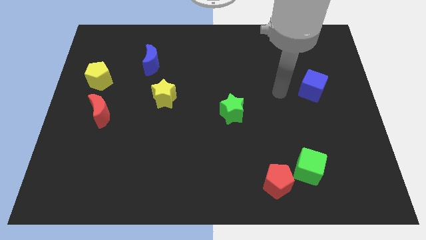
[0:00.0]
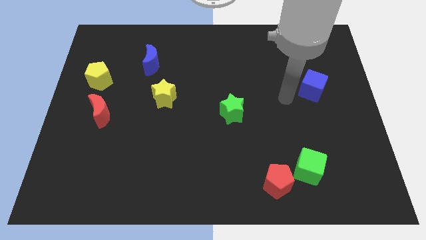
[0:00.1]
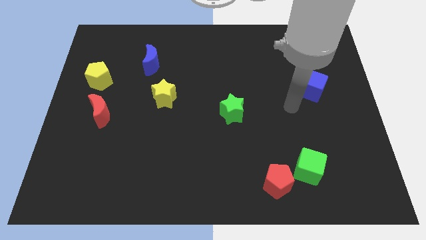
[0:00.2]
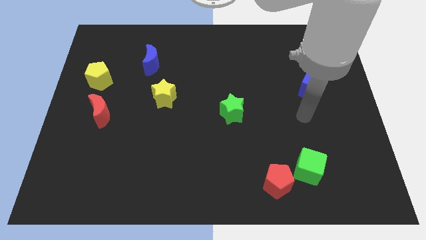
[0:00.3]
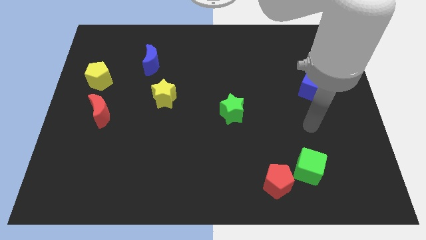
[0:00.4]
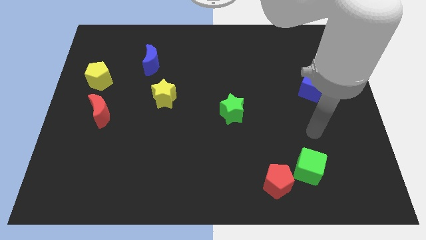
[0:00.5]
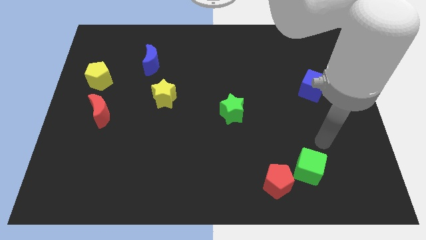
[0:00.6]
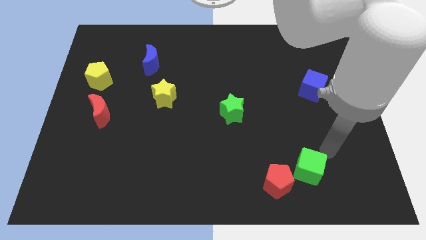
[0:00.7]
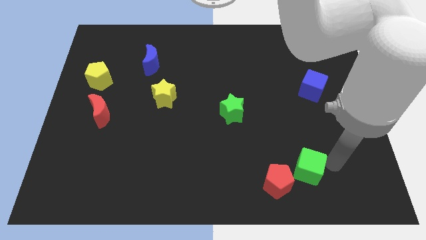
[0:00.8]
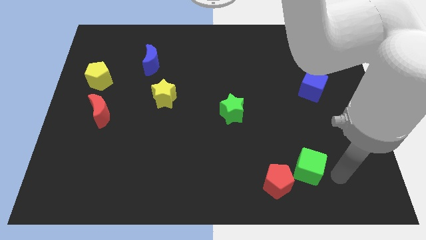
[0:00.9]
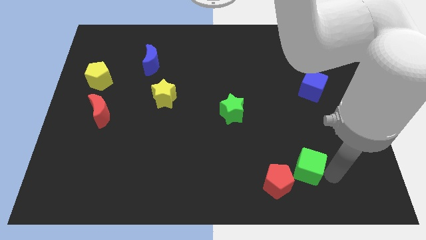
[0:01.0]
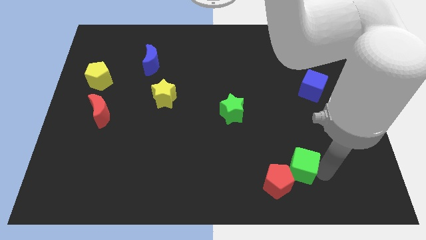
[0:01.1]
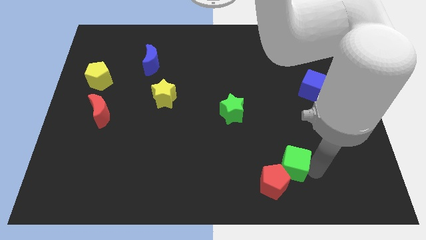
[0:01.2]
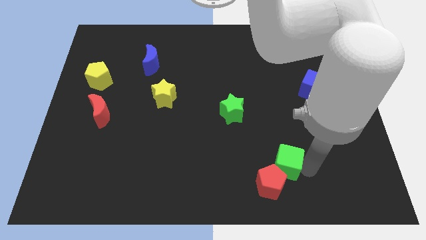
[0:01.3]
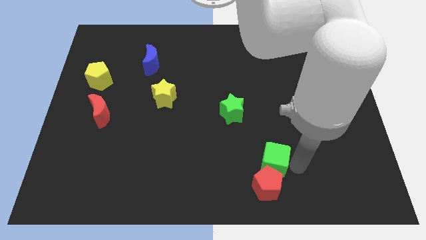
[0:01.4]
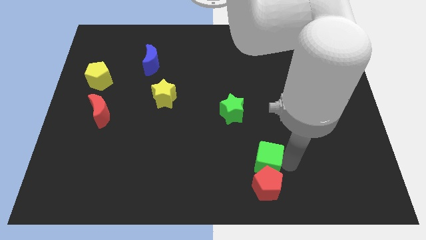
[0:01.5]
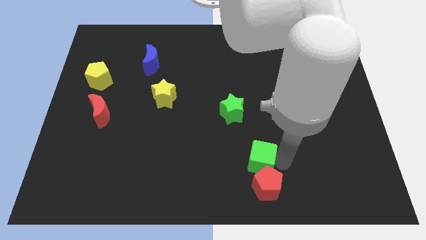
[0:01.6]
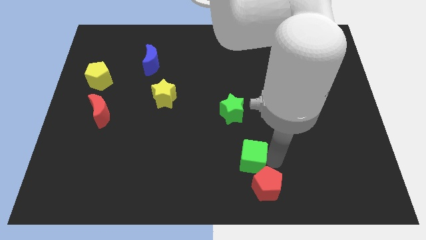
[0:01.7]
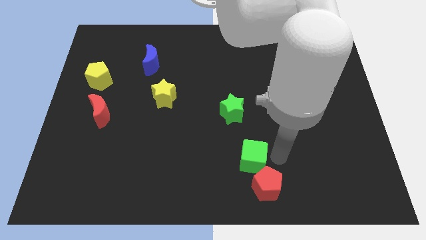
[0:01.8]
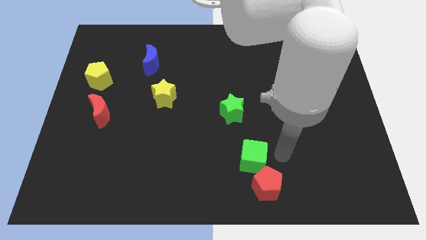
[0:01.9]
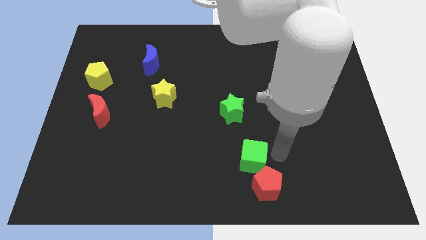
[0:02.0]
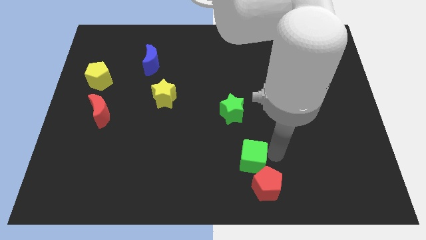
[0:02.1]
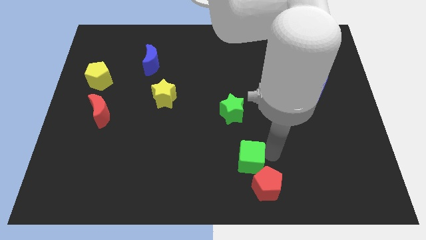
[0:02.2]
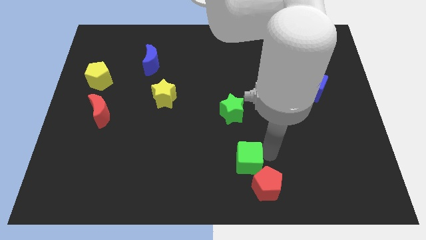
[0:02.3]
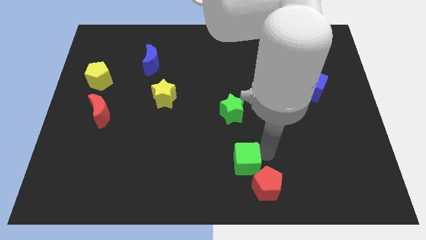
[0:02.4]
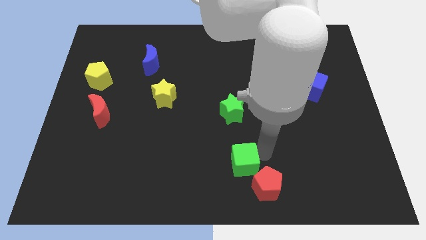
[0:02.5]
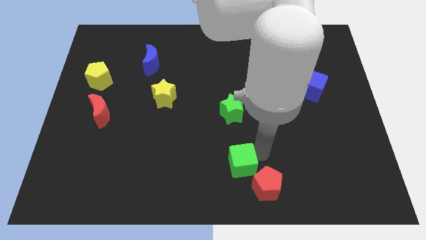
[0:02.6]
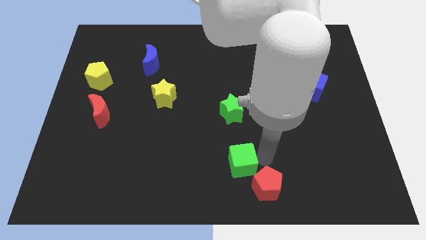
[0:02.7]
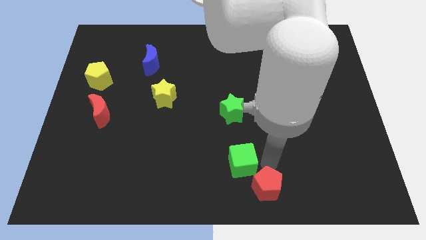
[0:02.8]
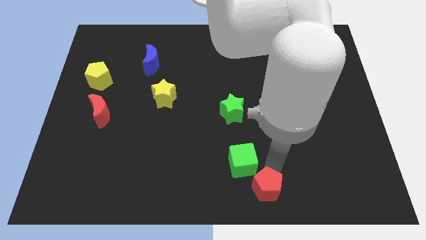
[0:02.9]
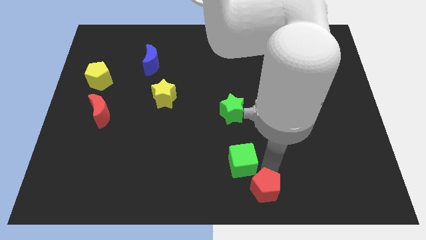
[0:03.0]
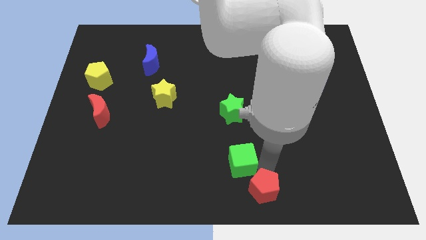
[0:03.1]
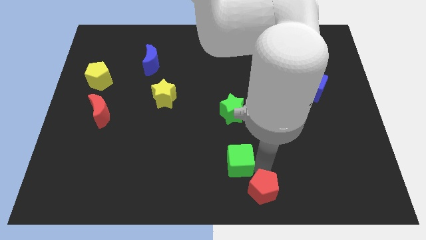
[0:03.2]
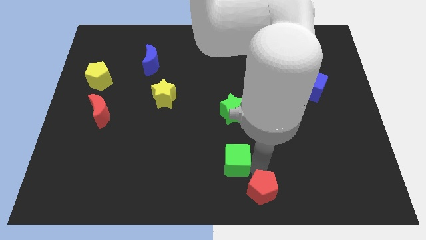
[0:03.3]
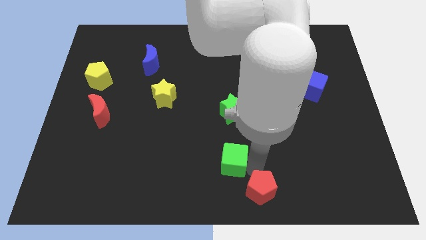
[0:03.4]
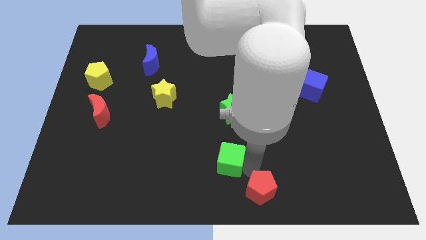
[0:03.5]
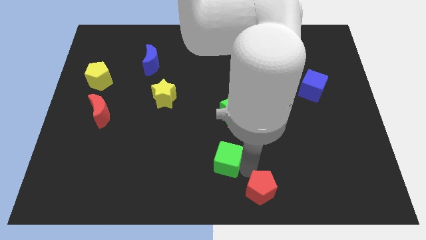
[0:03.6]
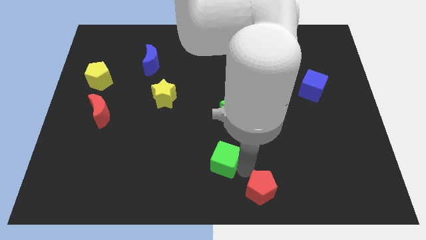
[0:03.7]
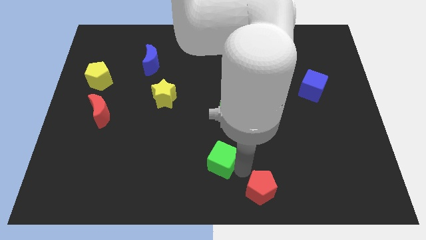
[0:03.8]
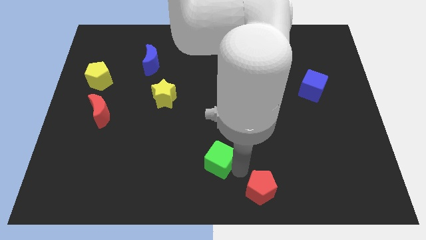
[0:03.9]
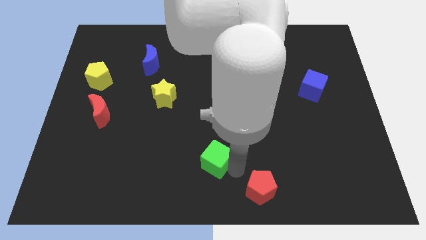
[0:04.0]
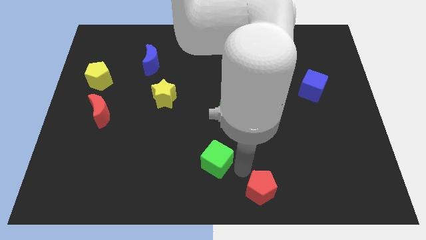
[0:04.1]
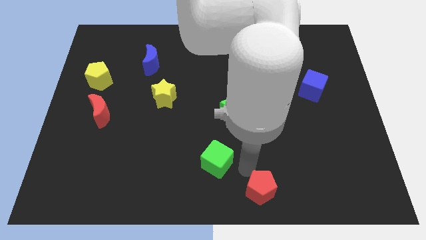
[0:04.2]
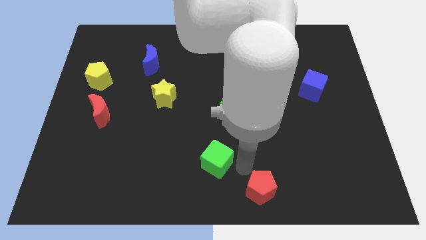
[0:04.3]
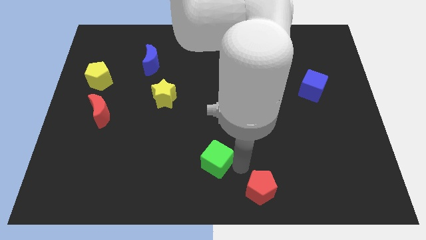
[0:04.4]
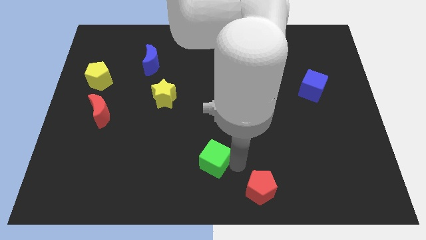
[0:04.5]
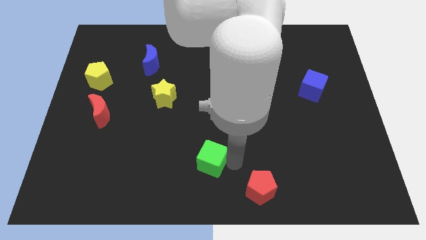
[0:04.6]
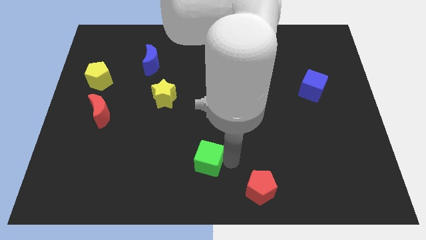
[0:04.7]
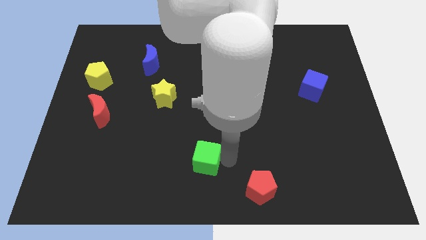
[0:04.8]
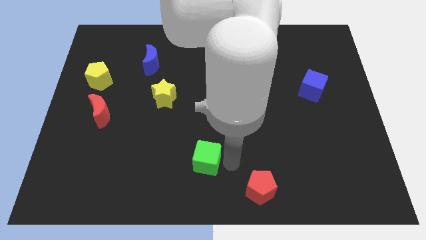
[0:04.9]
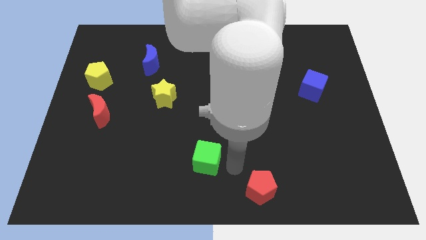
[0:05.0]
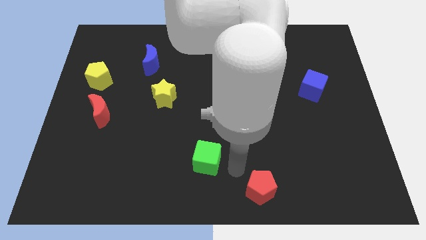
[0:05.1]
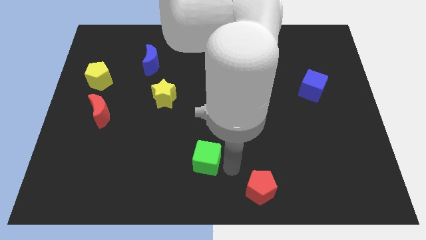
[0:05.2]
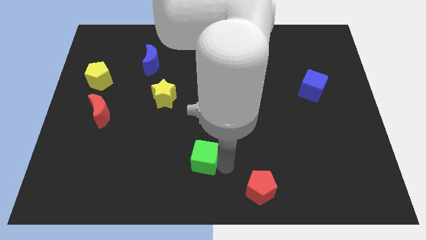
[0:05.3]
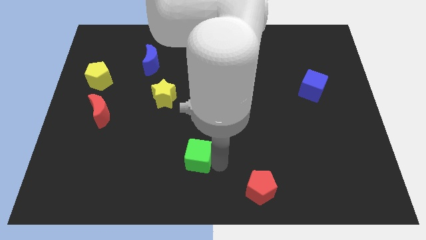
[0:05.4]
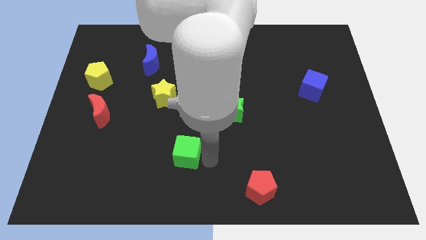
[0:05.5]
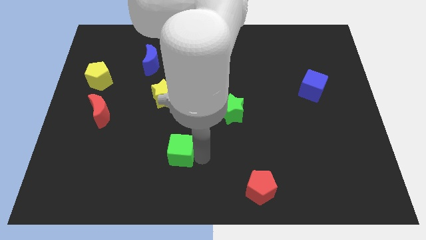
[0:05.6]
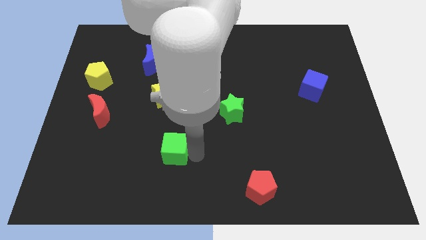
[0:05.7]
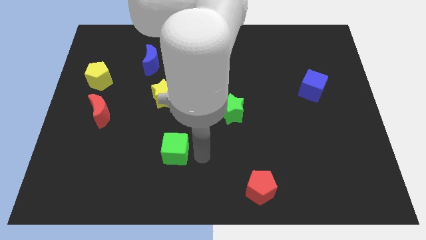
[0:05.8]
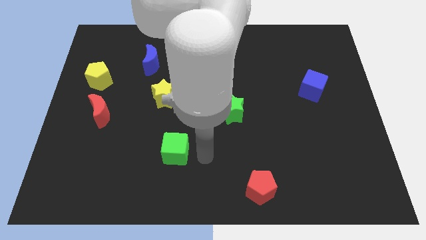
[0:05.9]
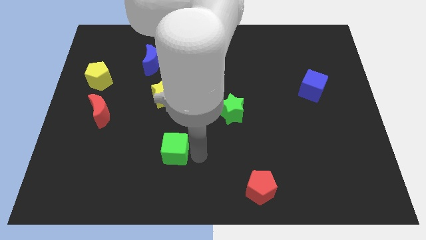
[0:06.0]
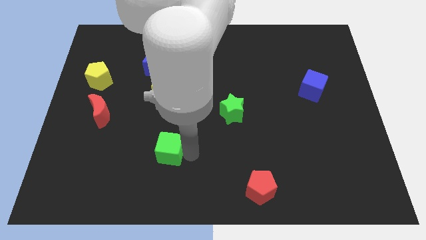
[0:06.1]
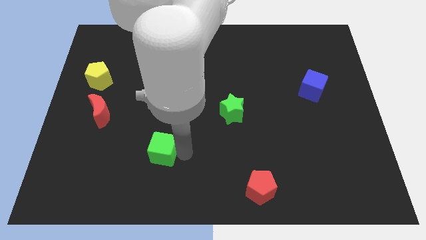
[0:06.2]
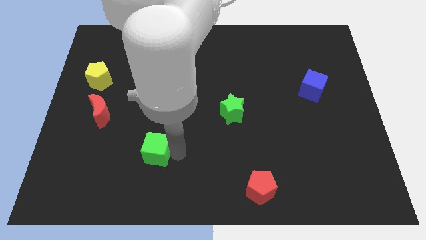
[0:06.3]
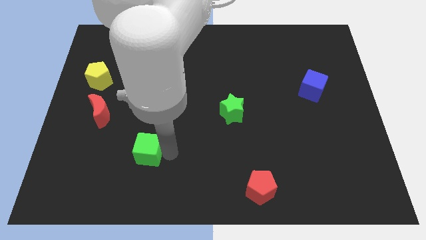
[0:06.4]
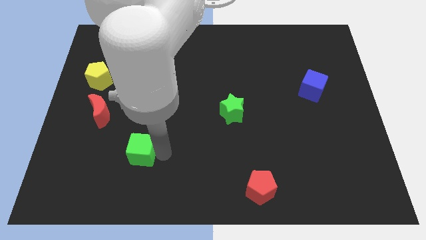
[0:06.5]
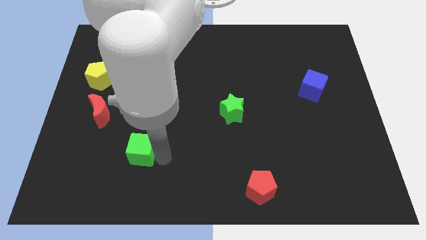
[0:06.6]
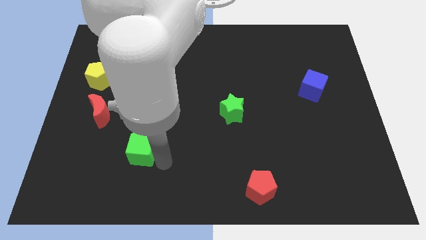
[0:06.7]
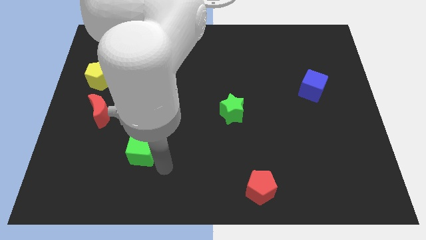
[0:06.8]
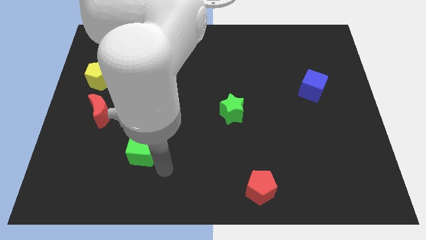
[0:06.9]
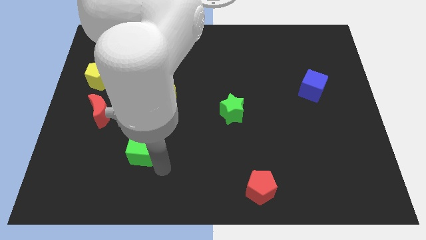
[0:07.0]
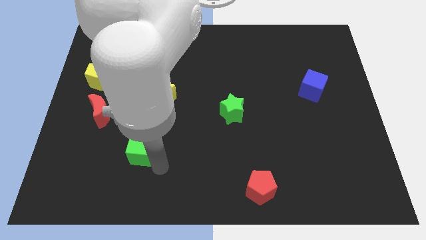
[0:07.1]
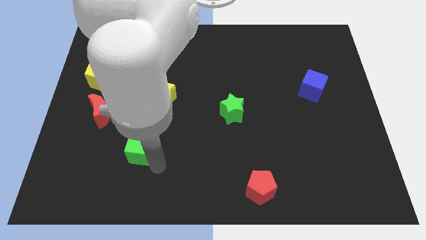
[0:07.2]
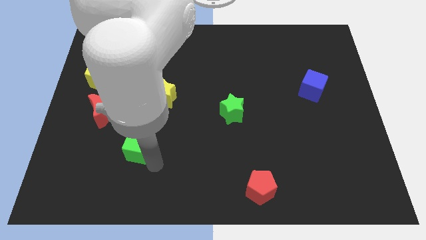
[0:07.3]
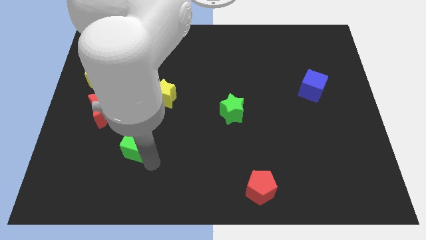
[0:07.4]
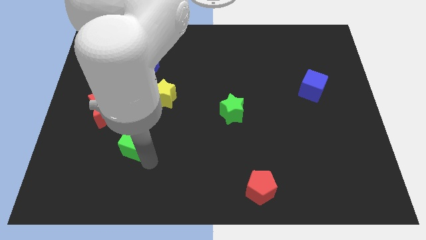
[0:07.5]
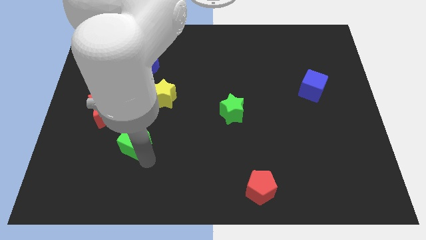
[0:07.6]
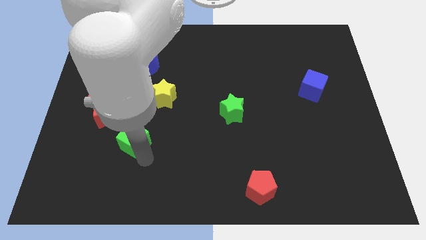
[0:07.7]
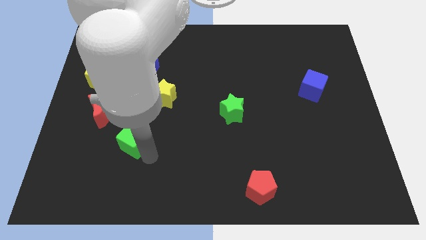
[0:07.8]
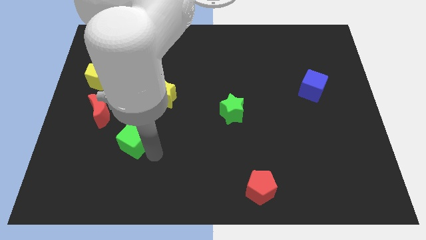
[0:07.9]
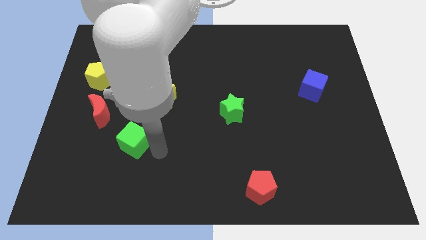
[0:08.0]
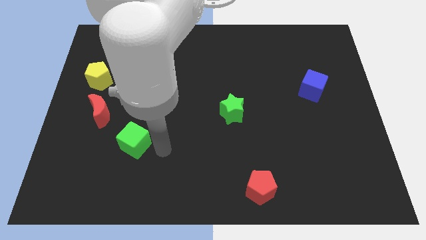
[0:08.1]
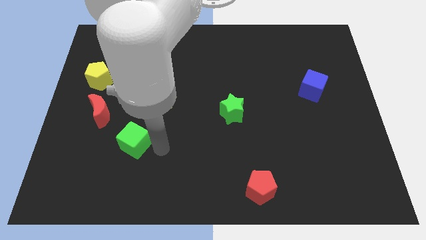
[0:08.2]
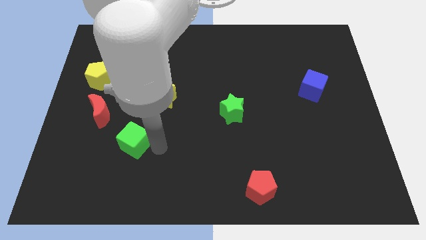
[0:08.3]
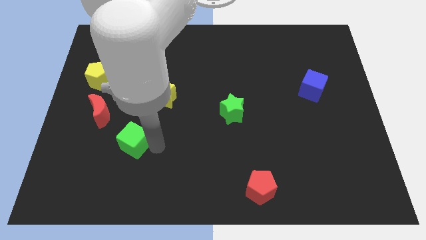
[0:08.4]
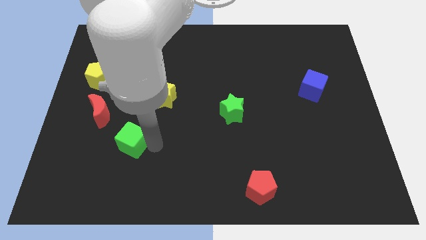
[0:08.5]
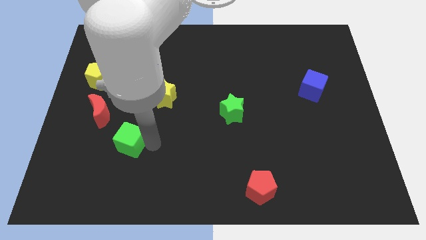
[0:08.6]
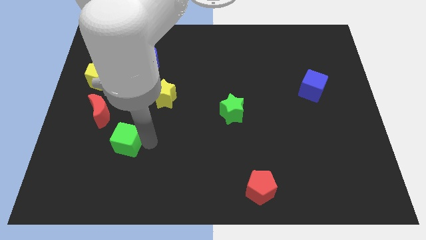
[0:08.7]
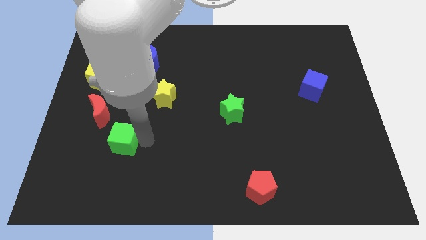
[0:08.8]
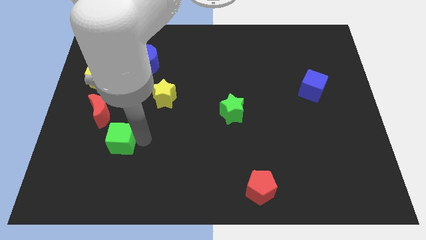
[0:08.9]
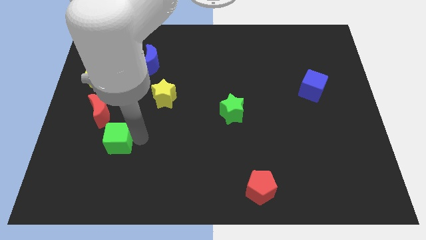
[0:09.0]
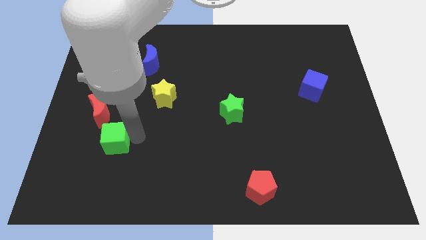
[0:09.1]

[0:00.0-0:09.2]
push the green cube below the red moon
